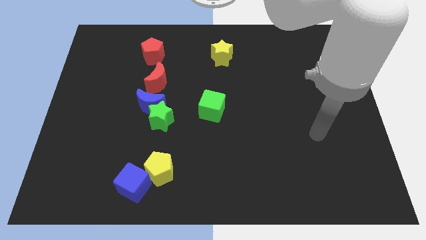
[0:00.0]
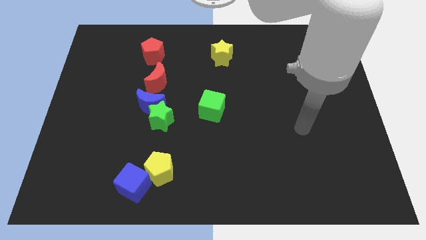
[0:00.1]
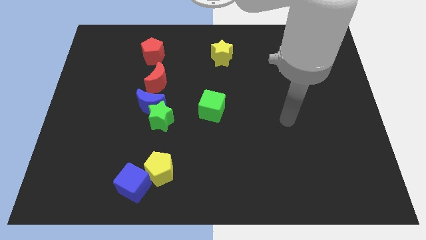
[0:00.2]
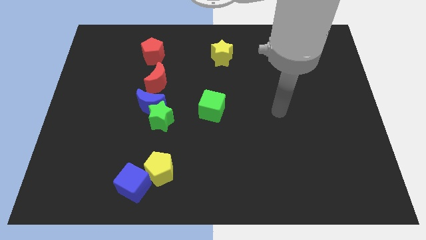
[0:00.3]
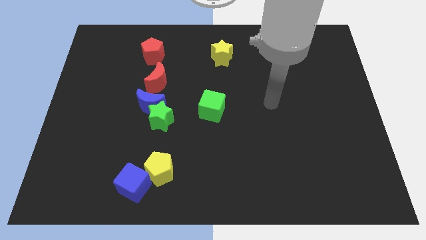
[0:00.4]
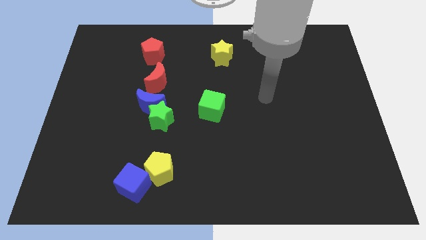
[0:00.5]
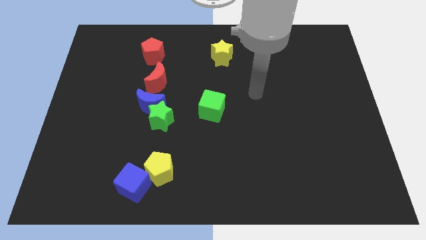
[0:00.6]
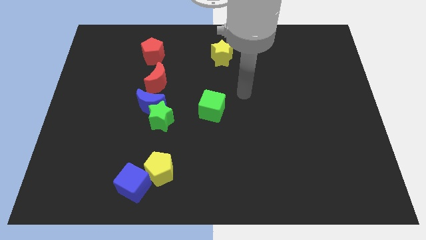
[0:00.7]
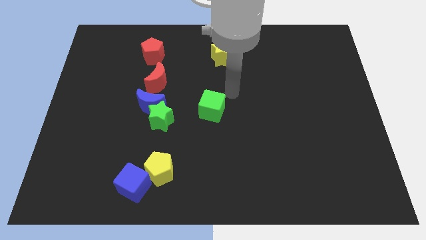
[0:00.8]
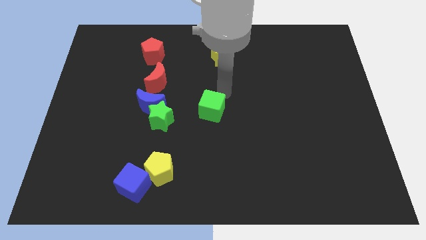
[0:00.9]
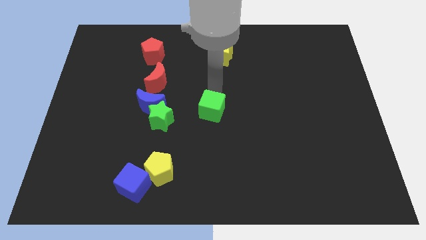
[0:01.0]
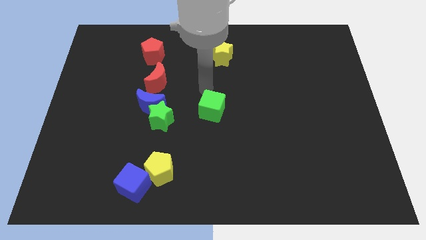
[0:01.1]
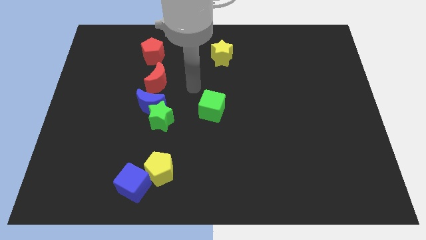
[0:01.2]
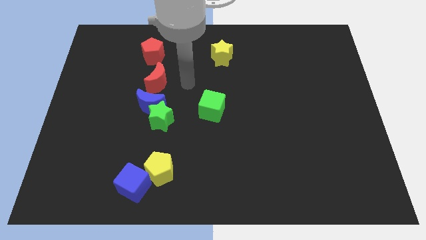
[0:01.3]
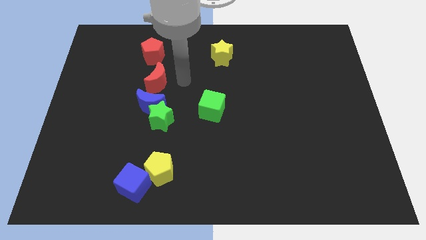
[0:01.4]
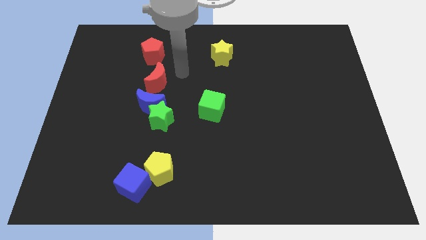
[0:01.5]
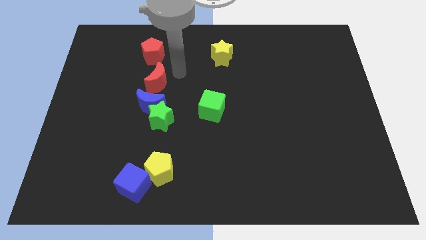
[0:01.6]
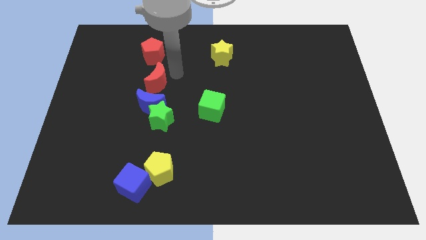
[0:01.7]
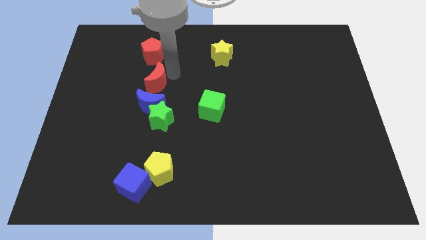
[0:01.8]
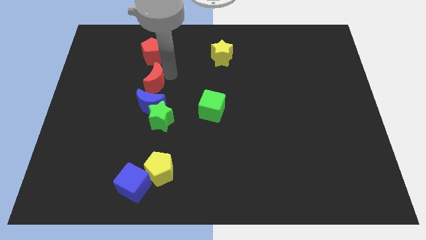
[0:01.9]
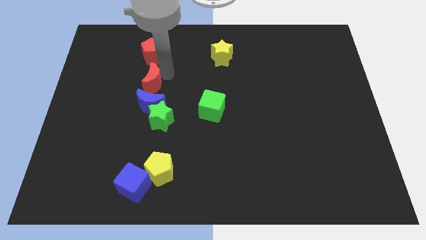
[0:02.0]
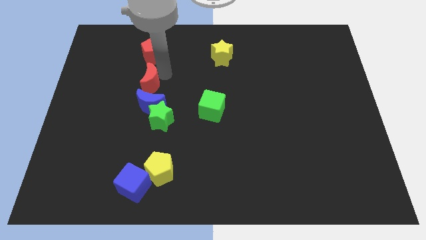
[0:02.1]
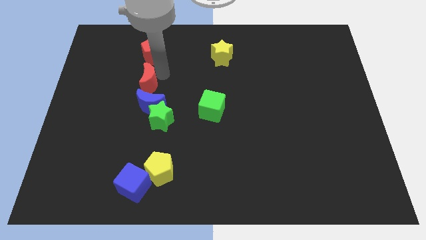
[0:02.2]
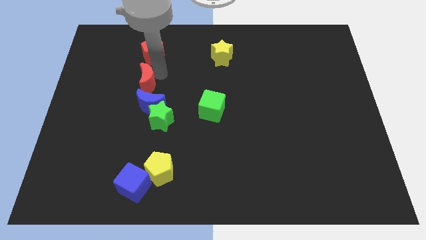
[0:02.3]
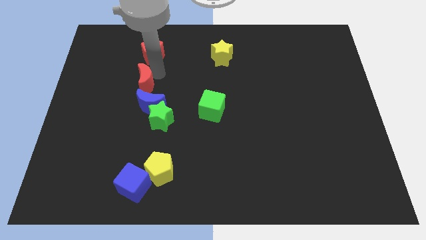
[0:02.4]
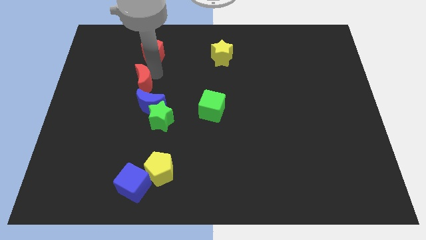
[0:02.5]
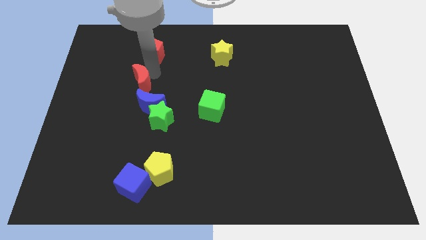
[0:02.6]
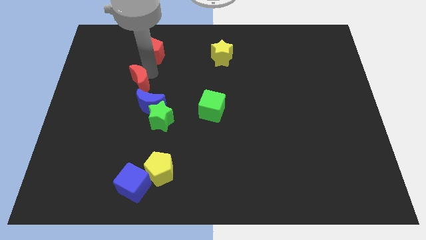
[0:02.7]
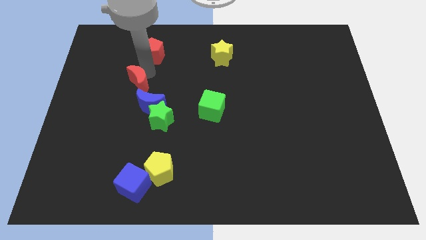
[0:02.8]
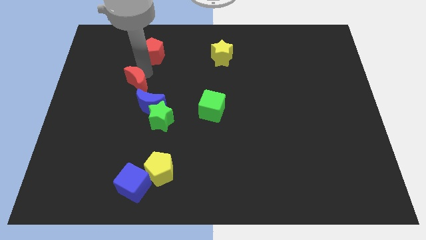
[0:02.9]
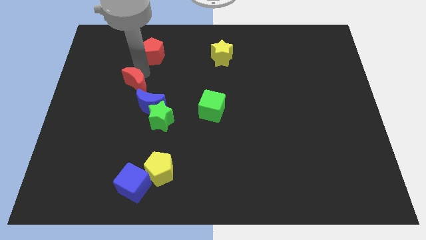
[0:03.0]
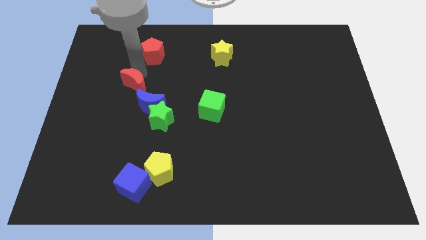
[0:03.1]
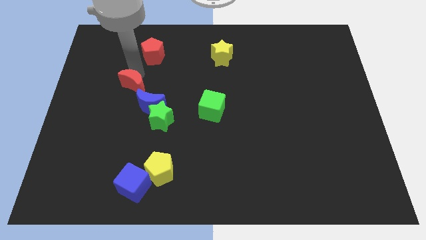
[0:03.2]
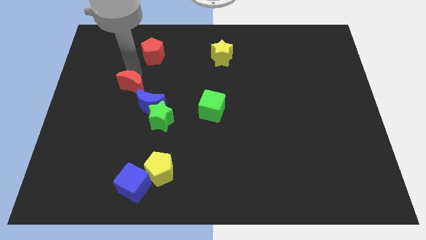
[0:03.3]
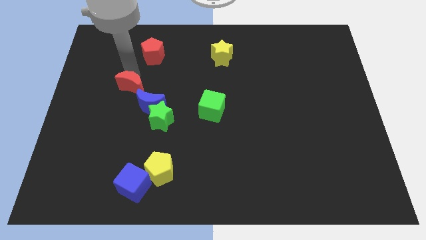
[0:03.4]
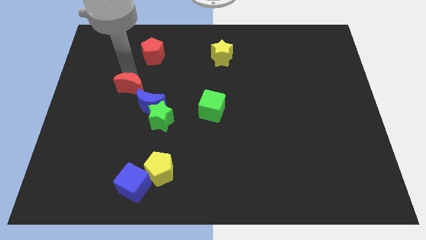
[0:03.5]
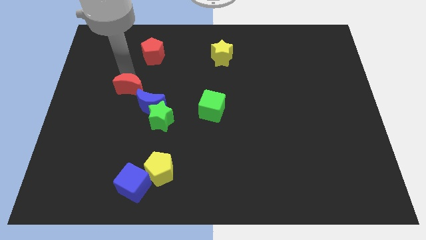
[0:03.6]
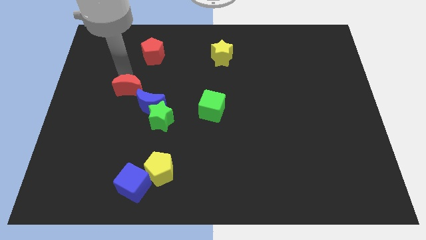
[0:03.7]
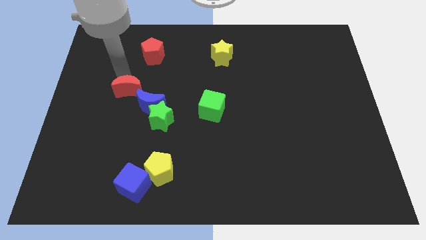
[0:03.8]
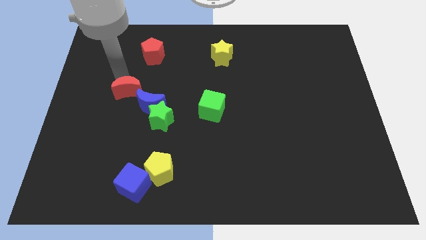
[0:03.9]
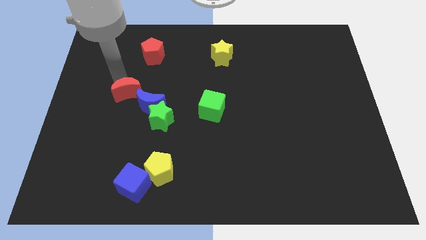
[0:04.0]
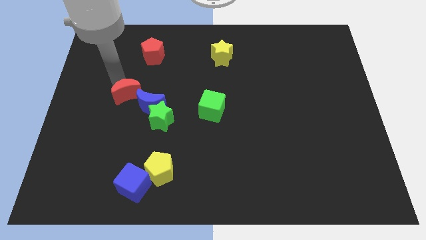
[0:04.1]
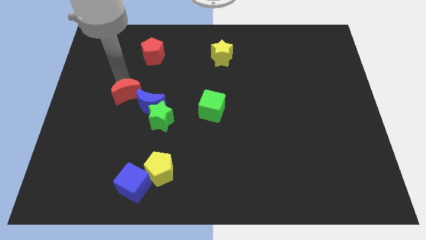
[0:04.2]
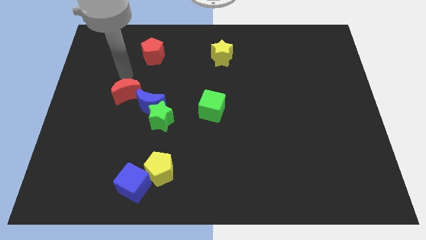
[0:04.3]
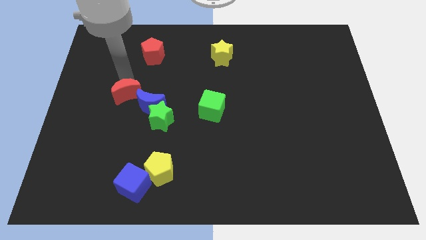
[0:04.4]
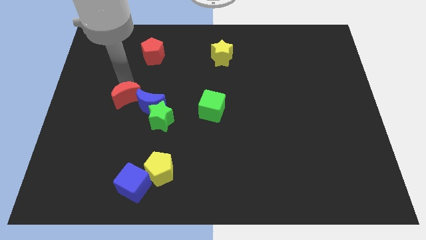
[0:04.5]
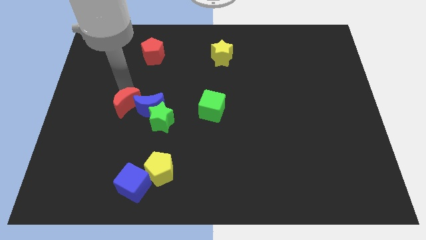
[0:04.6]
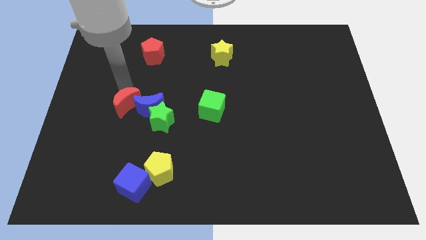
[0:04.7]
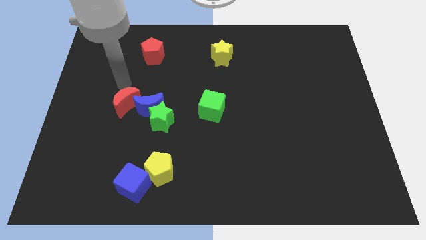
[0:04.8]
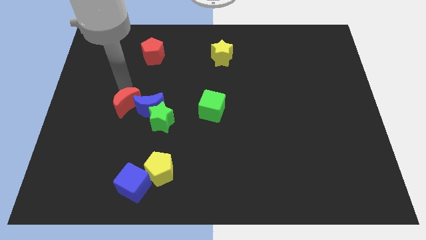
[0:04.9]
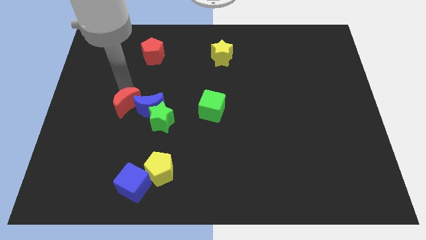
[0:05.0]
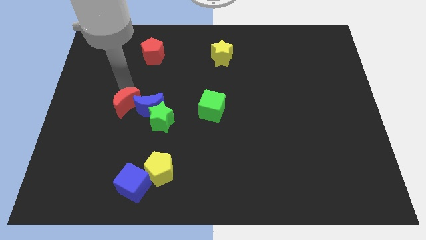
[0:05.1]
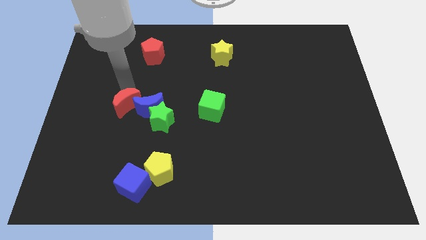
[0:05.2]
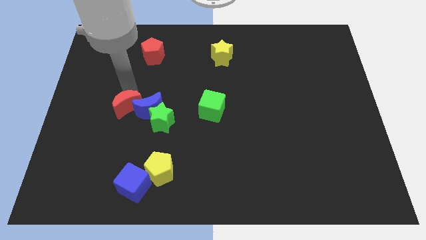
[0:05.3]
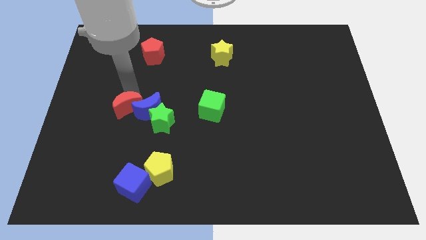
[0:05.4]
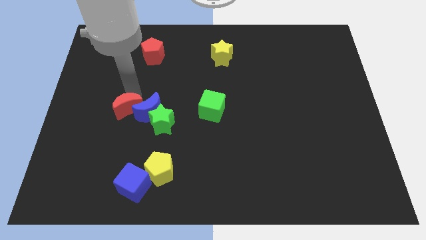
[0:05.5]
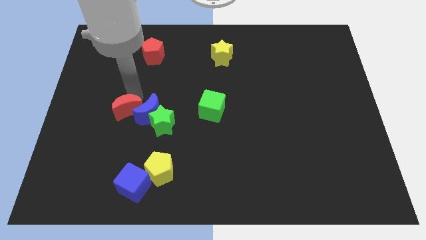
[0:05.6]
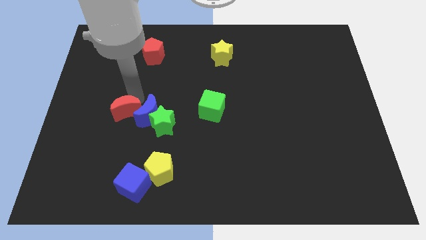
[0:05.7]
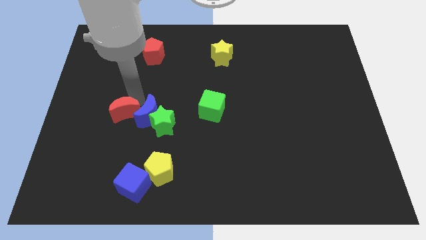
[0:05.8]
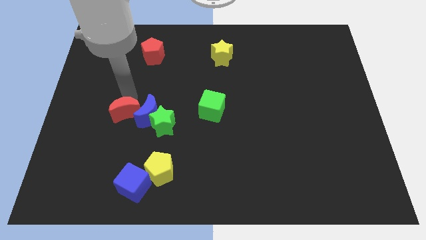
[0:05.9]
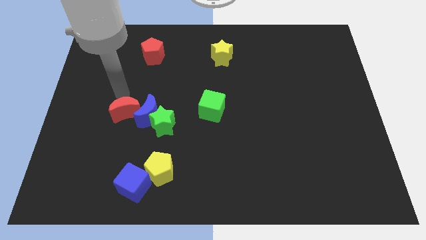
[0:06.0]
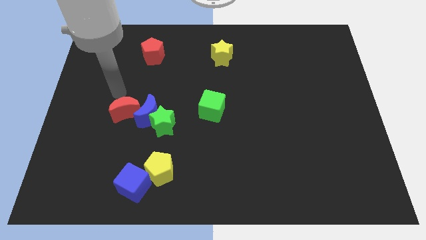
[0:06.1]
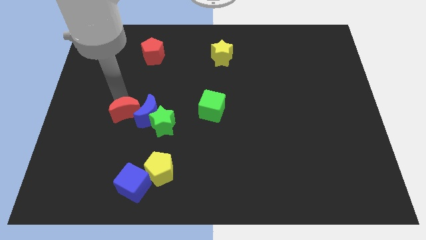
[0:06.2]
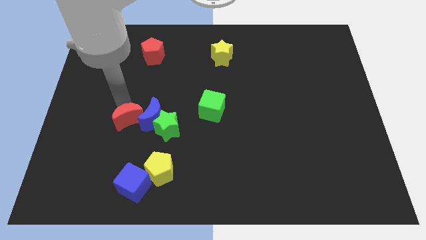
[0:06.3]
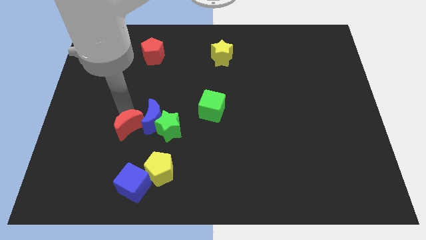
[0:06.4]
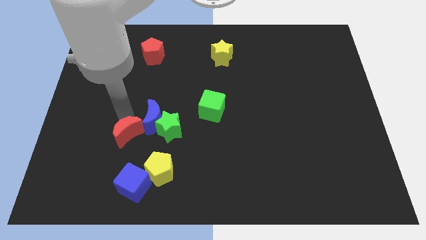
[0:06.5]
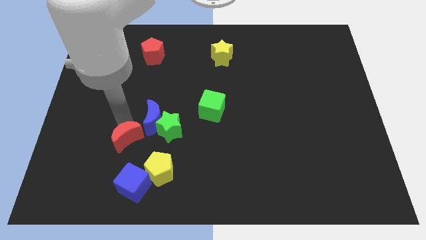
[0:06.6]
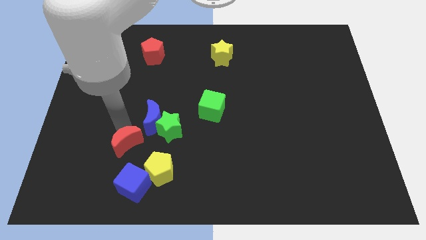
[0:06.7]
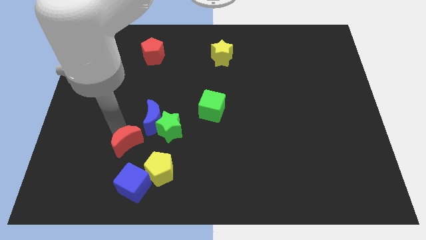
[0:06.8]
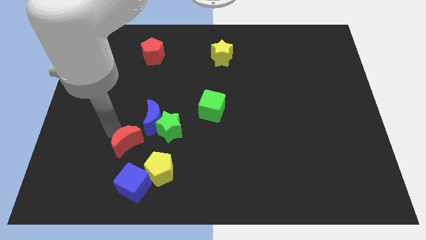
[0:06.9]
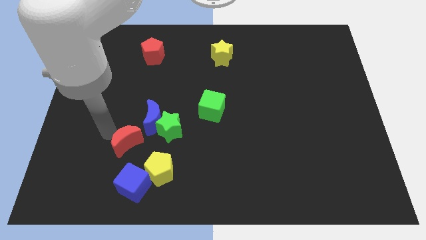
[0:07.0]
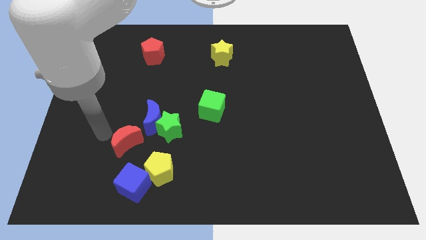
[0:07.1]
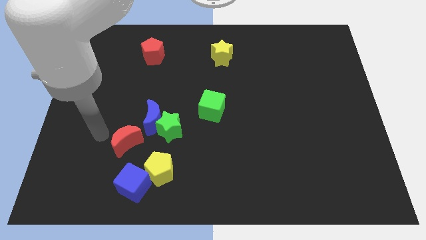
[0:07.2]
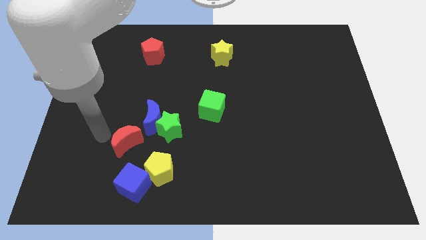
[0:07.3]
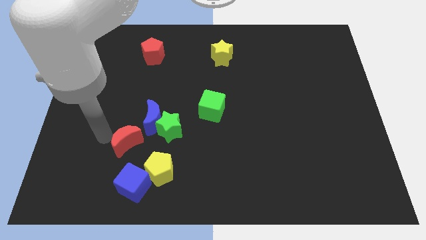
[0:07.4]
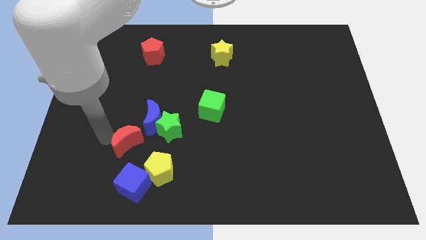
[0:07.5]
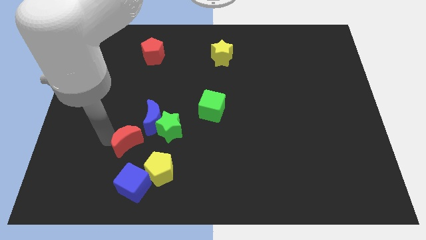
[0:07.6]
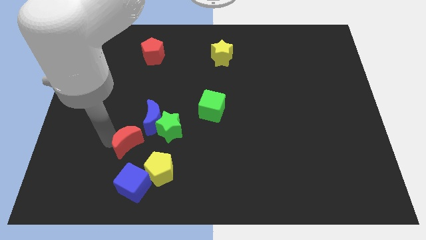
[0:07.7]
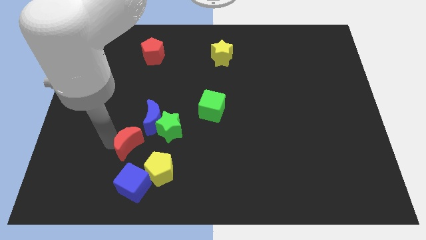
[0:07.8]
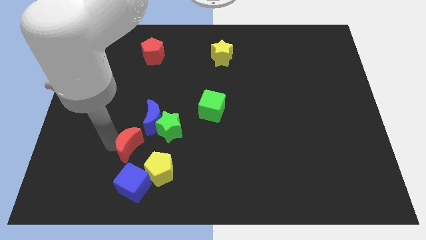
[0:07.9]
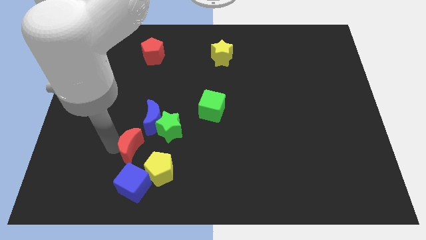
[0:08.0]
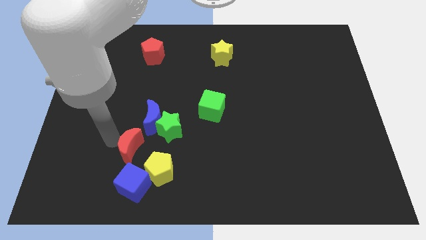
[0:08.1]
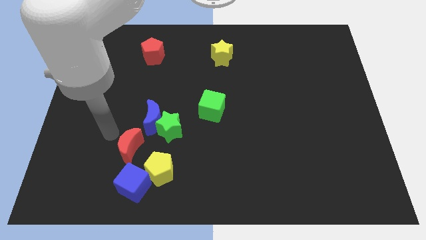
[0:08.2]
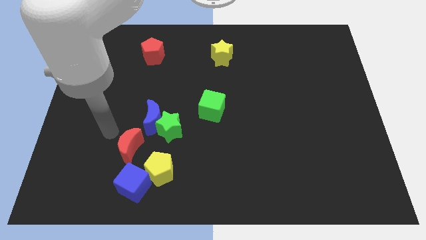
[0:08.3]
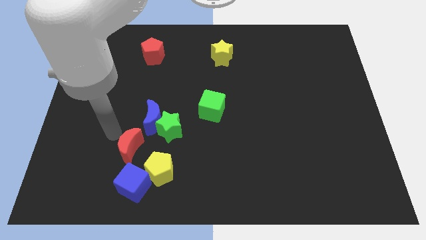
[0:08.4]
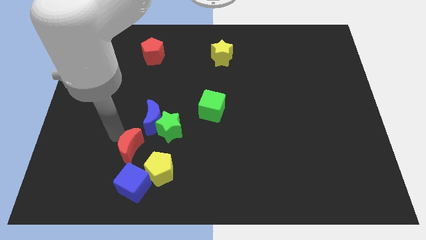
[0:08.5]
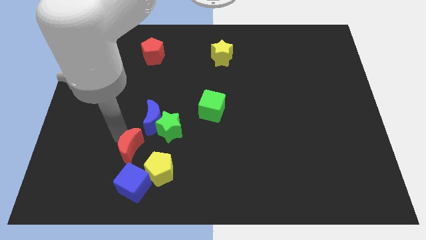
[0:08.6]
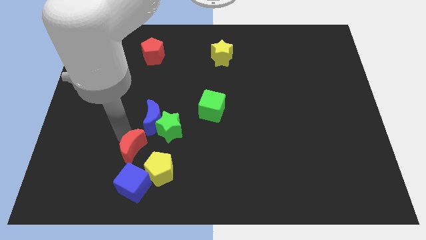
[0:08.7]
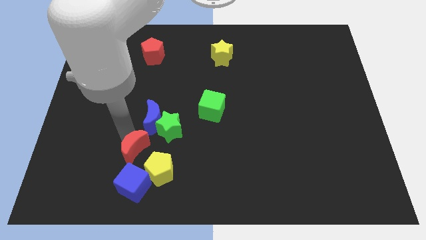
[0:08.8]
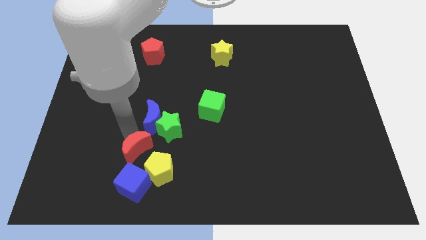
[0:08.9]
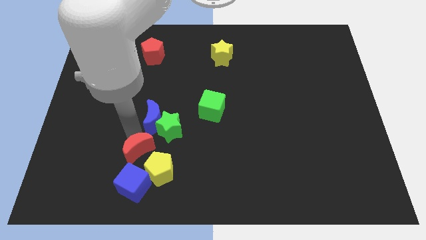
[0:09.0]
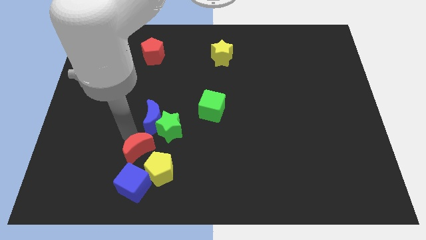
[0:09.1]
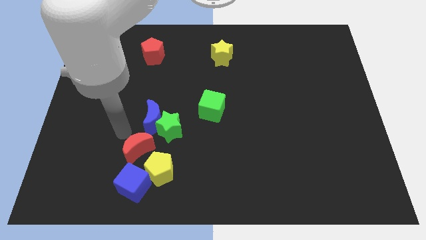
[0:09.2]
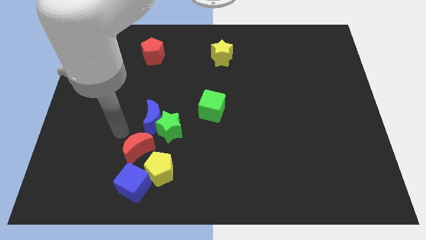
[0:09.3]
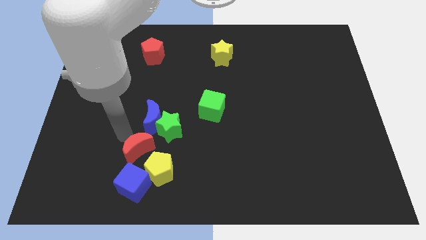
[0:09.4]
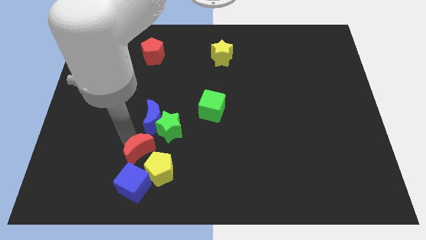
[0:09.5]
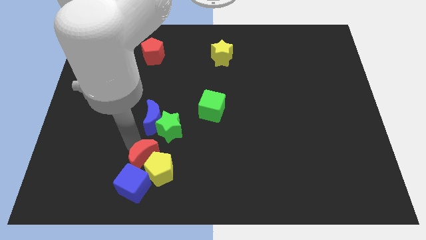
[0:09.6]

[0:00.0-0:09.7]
push the red moon close to the yellow pentagon
